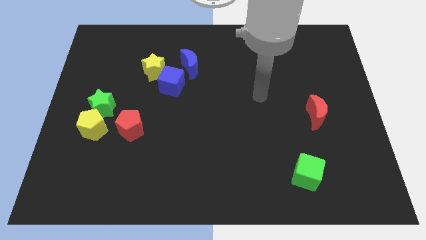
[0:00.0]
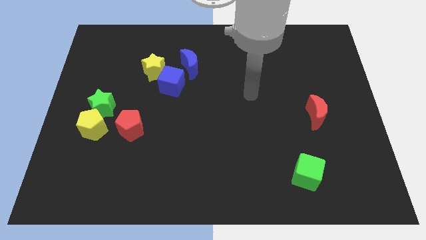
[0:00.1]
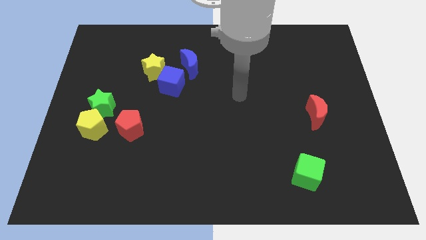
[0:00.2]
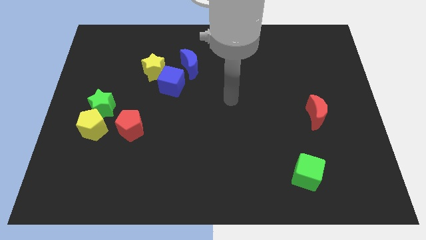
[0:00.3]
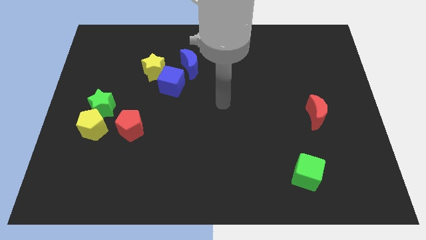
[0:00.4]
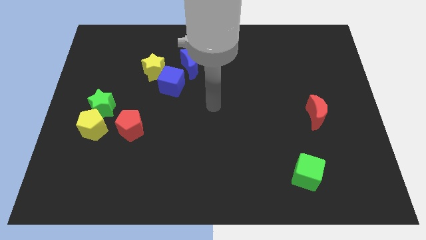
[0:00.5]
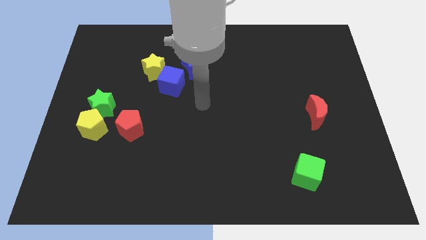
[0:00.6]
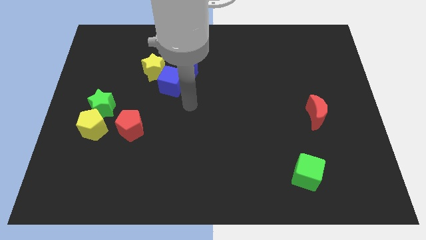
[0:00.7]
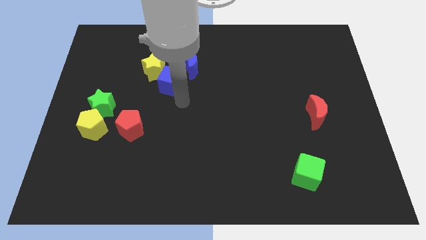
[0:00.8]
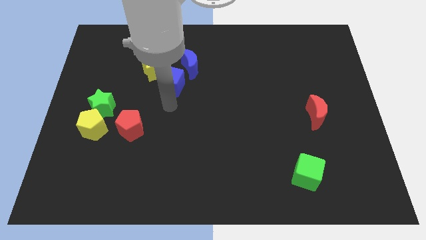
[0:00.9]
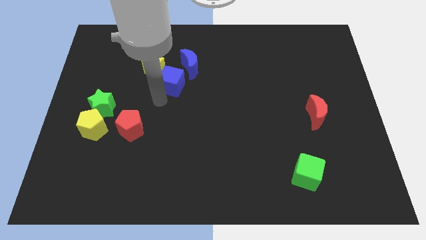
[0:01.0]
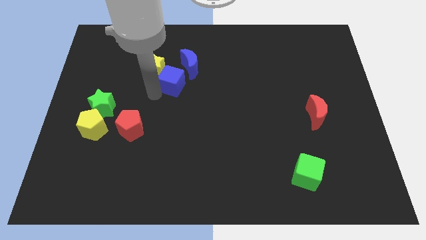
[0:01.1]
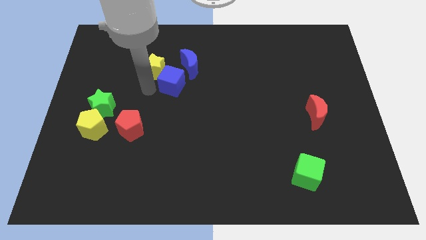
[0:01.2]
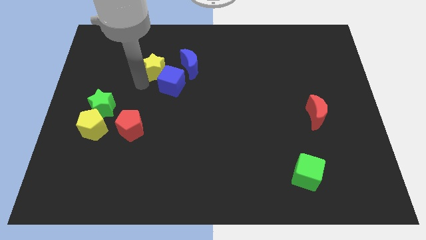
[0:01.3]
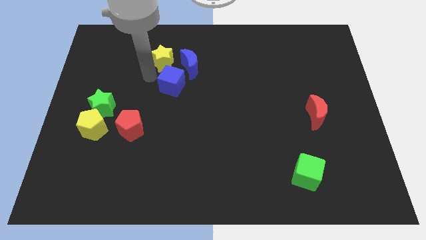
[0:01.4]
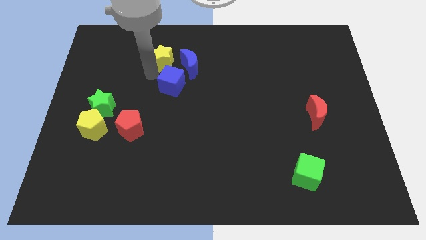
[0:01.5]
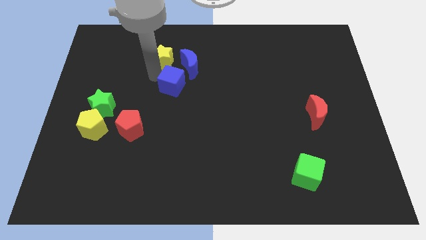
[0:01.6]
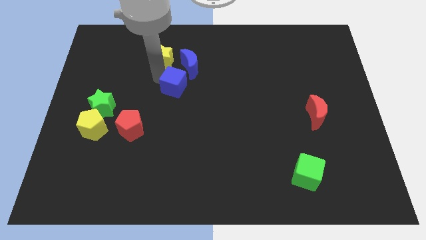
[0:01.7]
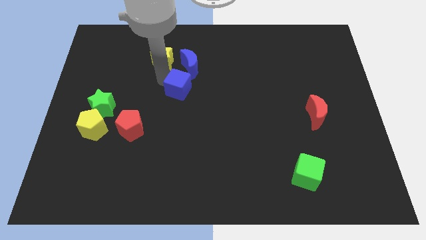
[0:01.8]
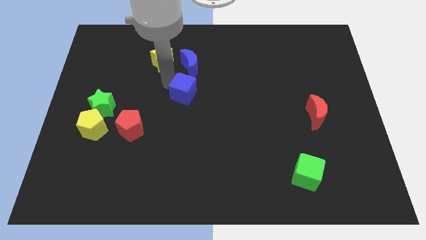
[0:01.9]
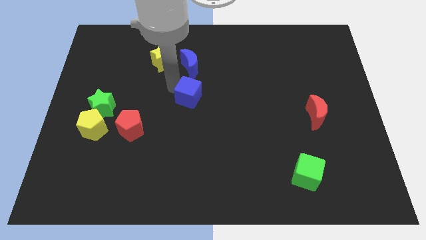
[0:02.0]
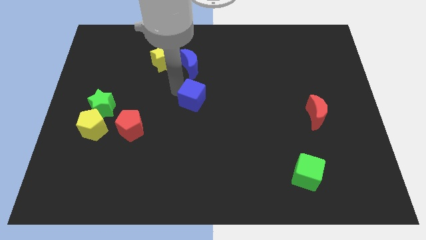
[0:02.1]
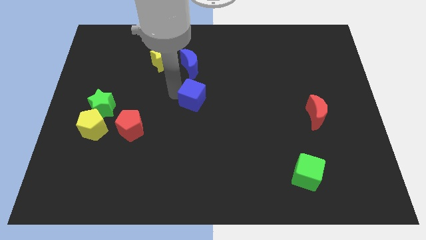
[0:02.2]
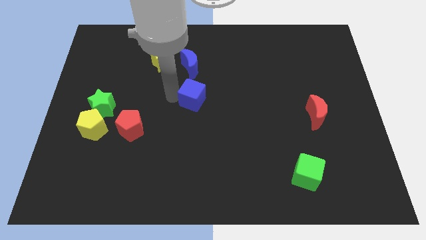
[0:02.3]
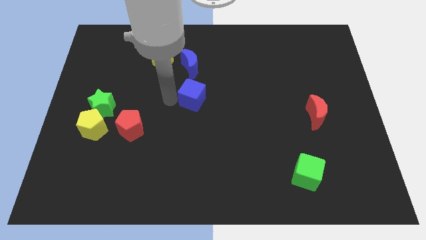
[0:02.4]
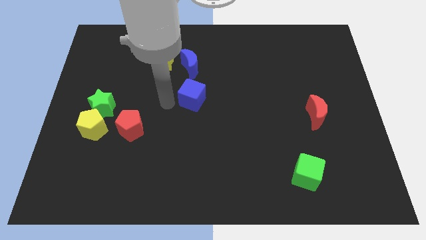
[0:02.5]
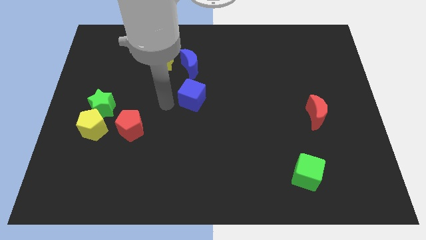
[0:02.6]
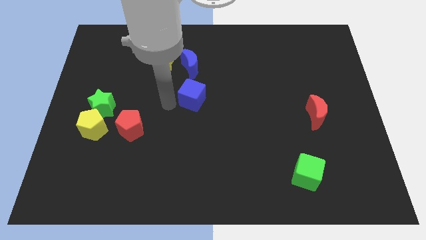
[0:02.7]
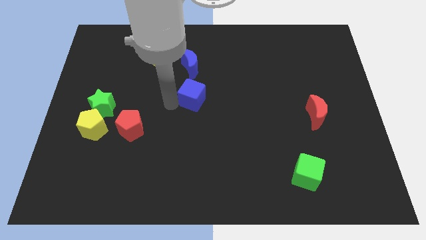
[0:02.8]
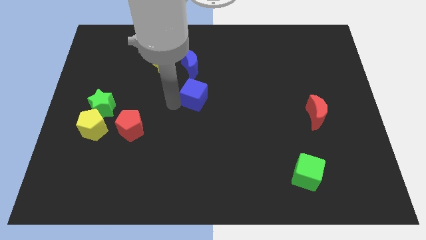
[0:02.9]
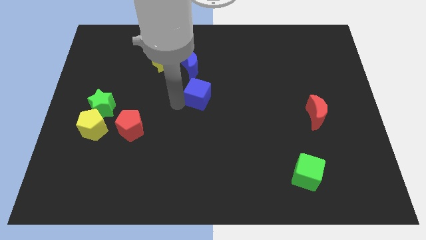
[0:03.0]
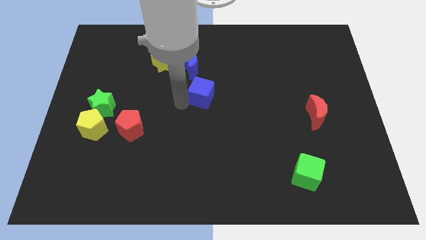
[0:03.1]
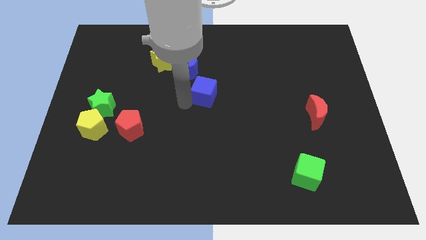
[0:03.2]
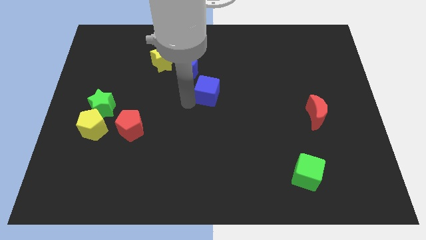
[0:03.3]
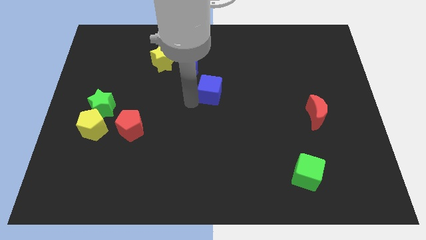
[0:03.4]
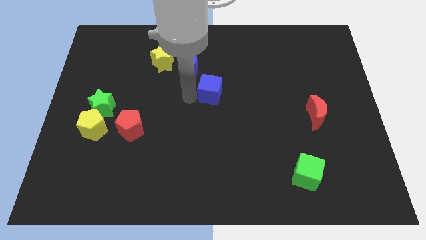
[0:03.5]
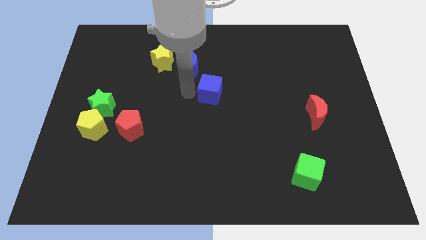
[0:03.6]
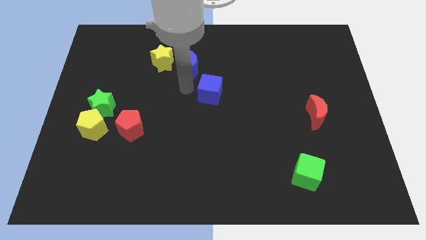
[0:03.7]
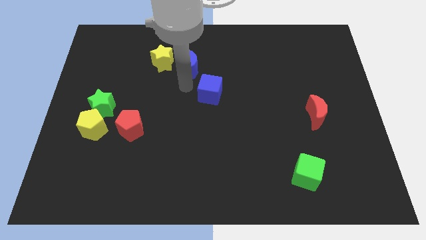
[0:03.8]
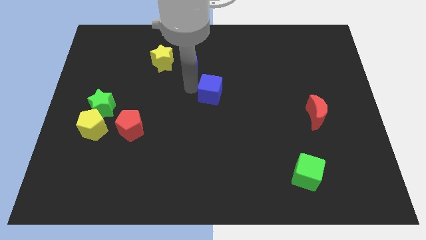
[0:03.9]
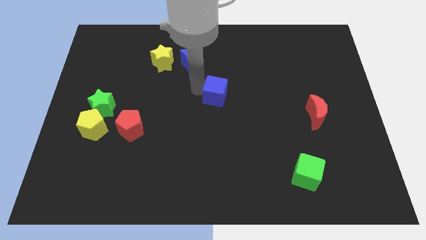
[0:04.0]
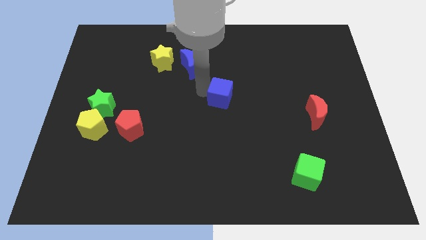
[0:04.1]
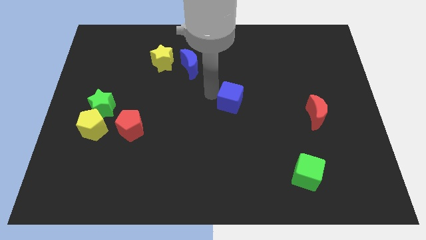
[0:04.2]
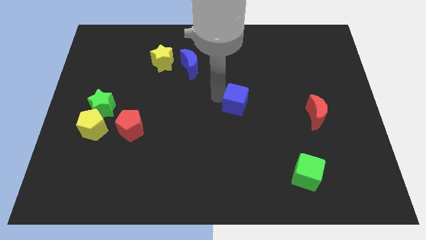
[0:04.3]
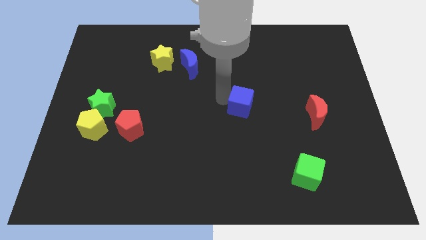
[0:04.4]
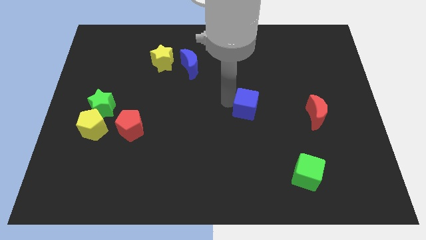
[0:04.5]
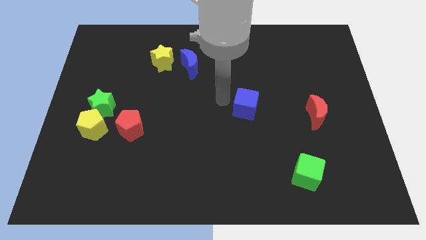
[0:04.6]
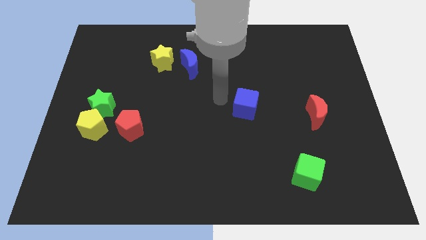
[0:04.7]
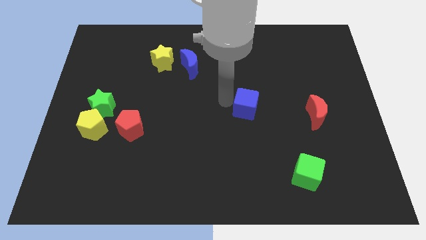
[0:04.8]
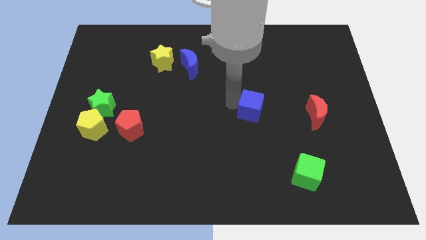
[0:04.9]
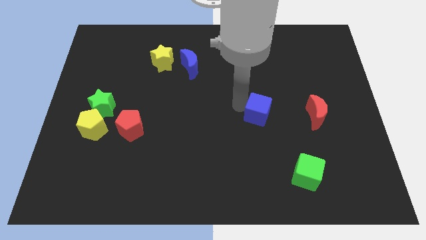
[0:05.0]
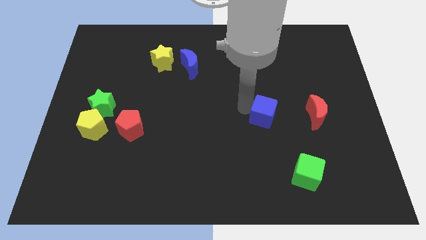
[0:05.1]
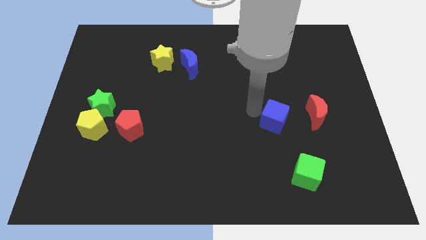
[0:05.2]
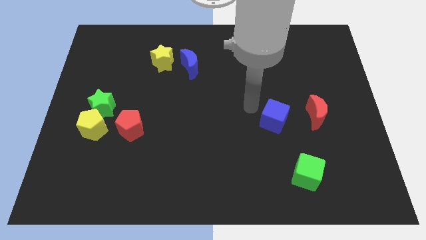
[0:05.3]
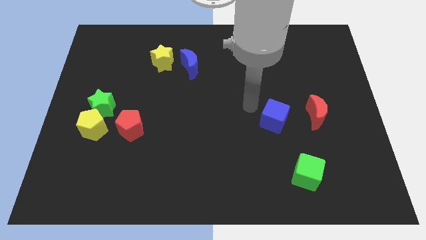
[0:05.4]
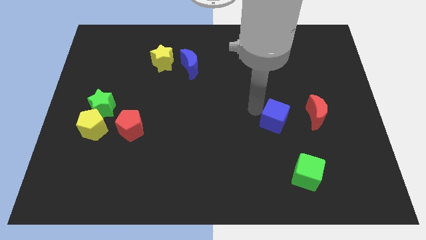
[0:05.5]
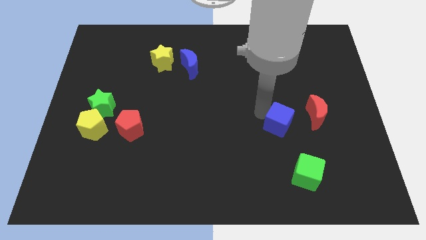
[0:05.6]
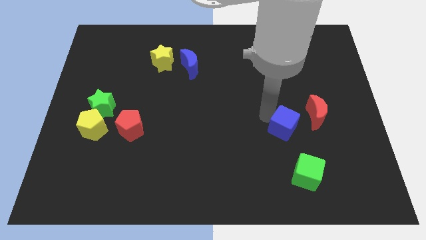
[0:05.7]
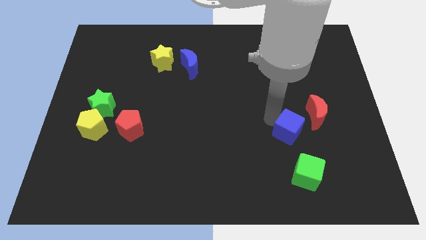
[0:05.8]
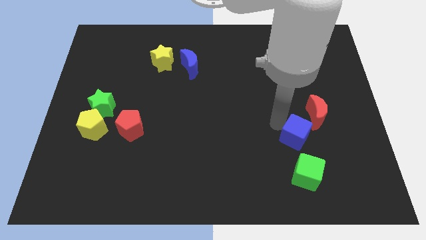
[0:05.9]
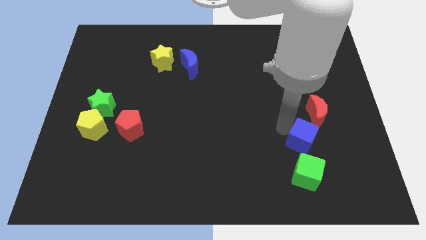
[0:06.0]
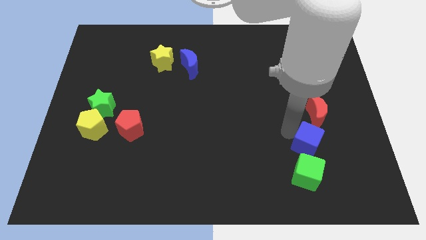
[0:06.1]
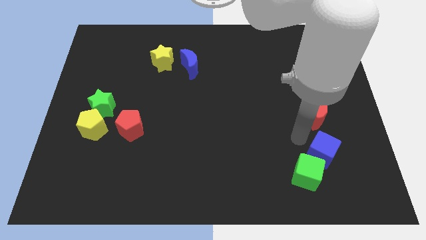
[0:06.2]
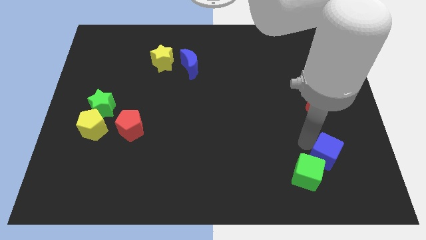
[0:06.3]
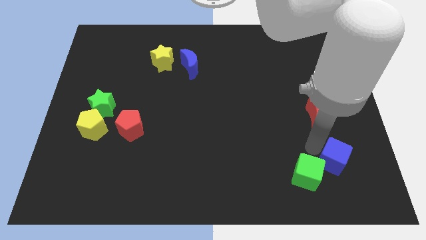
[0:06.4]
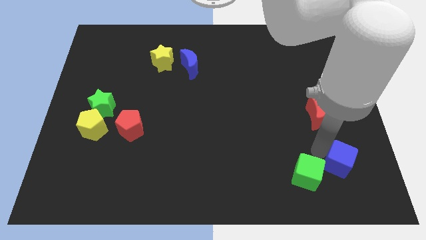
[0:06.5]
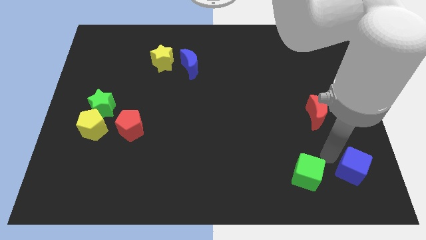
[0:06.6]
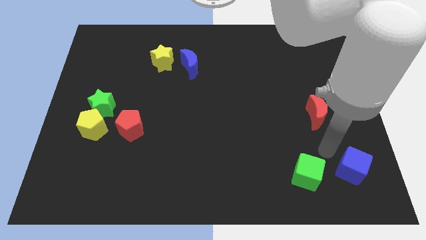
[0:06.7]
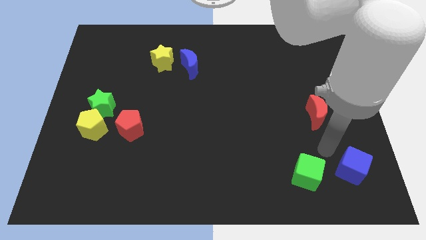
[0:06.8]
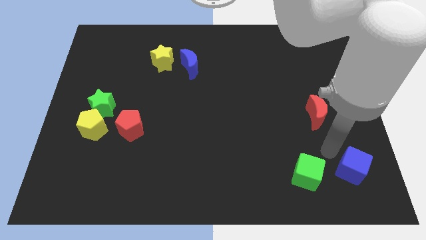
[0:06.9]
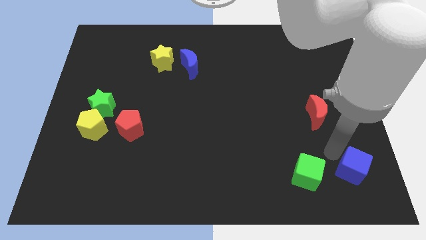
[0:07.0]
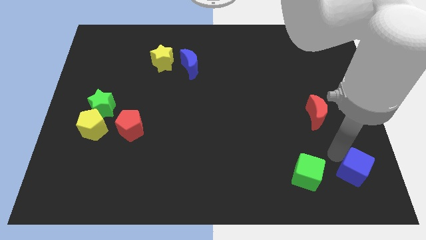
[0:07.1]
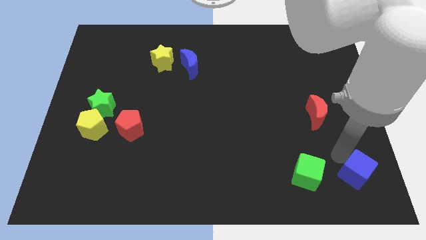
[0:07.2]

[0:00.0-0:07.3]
push the blue cube to the bottom right corner
